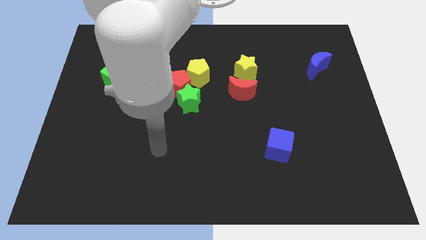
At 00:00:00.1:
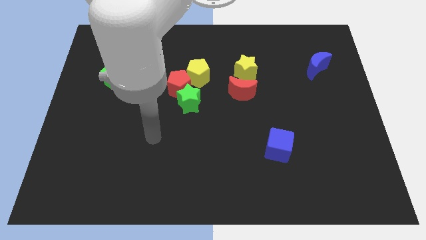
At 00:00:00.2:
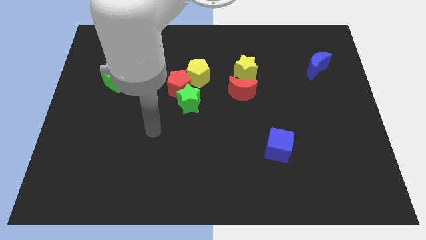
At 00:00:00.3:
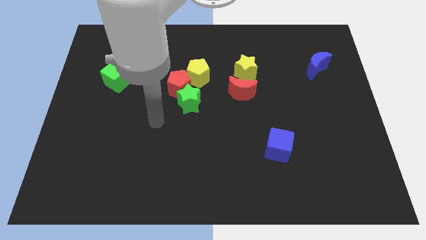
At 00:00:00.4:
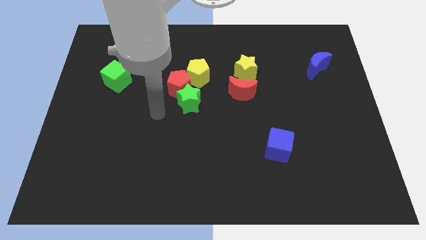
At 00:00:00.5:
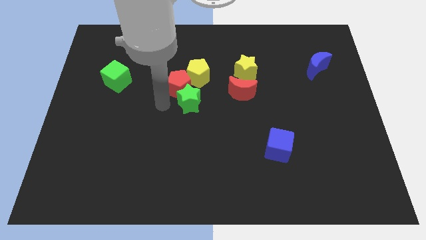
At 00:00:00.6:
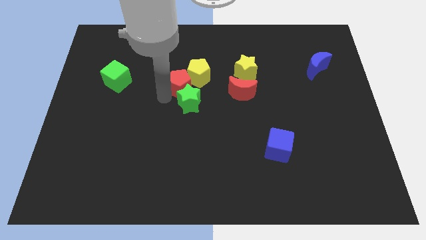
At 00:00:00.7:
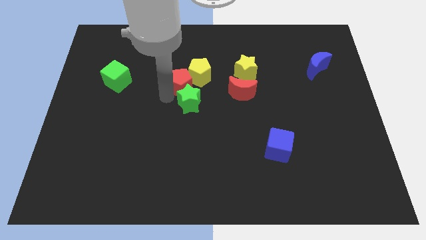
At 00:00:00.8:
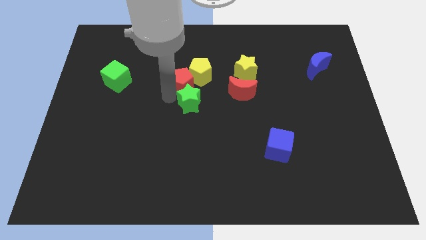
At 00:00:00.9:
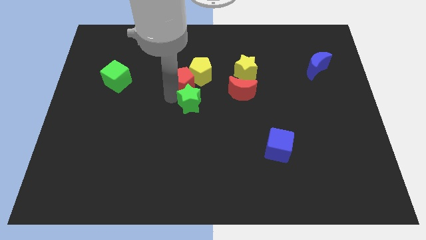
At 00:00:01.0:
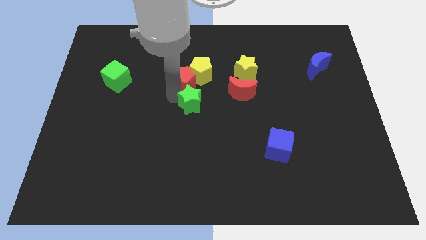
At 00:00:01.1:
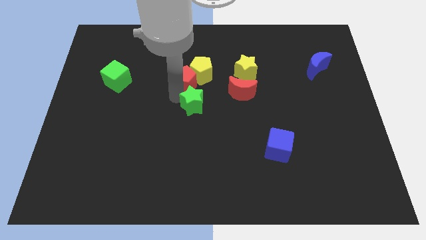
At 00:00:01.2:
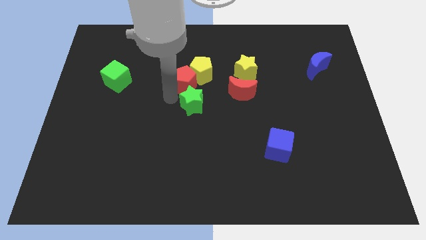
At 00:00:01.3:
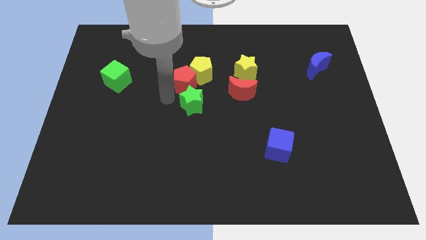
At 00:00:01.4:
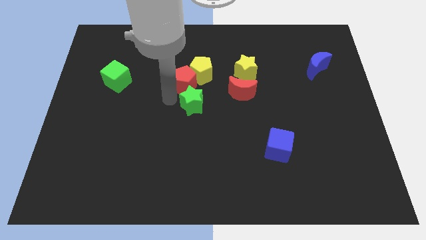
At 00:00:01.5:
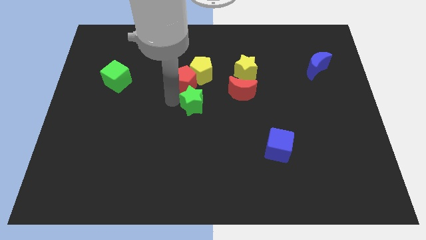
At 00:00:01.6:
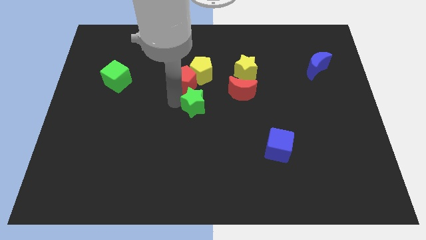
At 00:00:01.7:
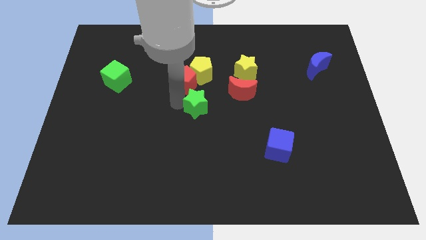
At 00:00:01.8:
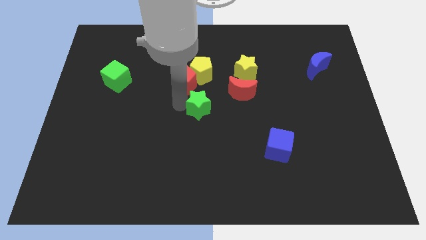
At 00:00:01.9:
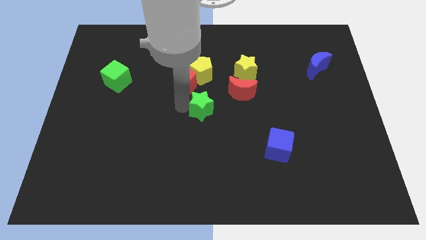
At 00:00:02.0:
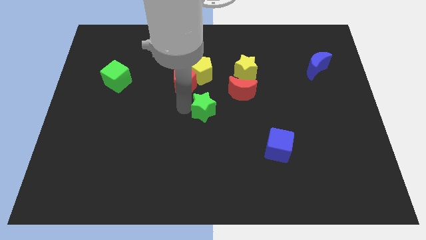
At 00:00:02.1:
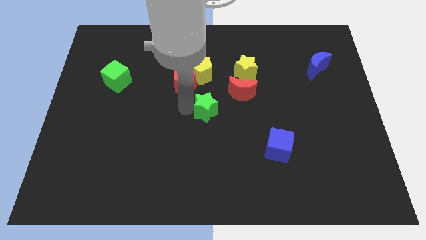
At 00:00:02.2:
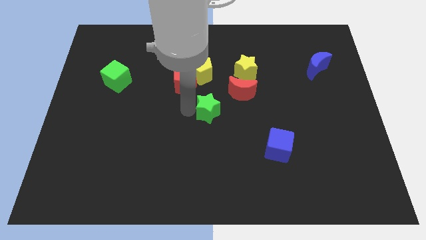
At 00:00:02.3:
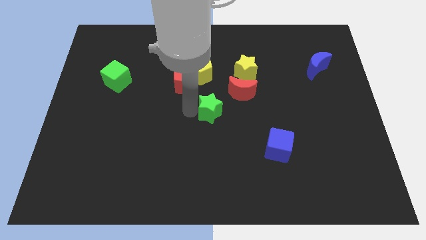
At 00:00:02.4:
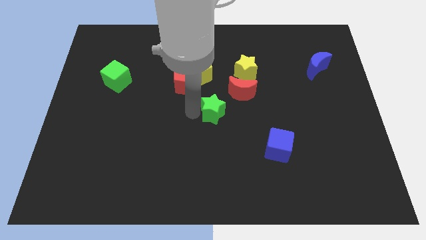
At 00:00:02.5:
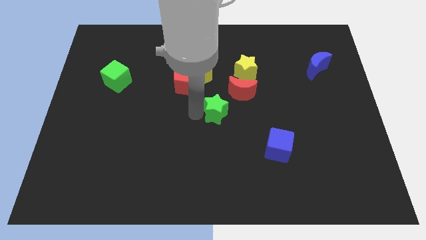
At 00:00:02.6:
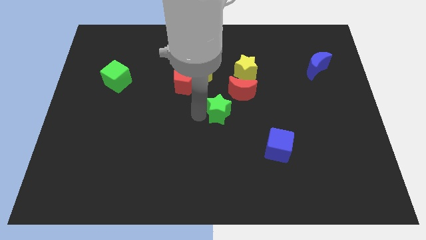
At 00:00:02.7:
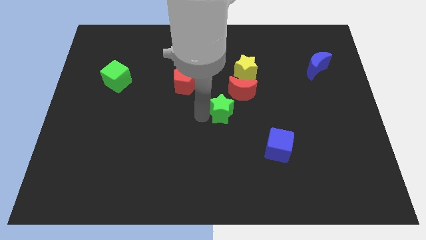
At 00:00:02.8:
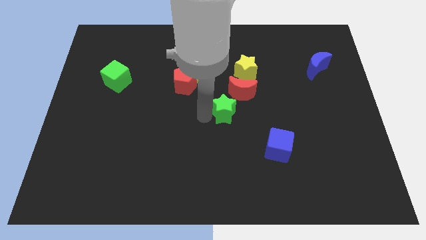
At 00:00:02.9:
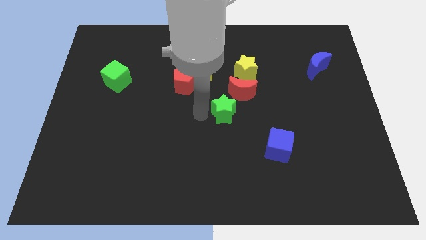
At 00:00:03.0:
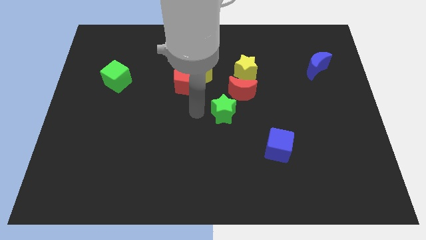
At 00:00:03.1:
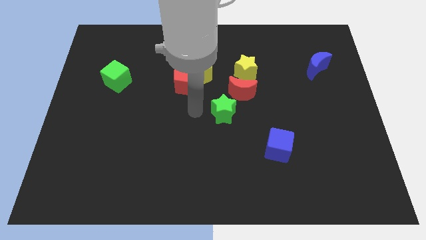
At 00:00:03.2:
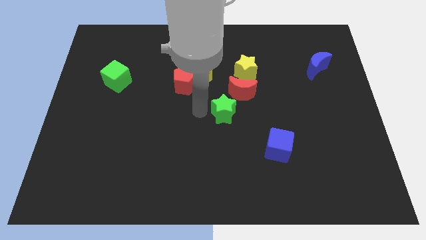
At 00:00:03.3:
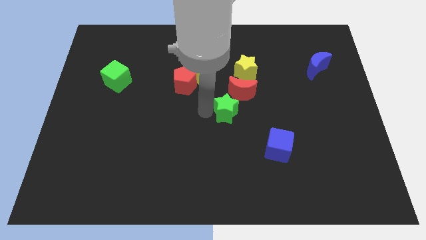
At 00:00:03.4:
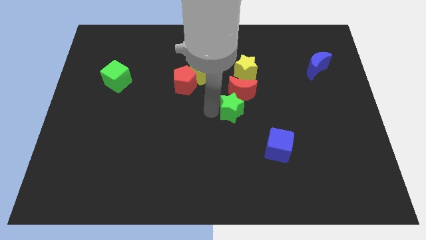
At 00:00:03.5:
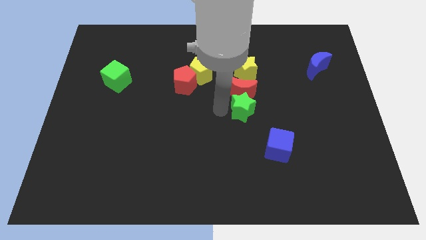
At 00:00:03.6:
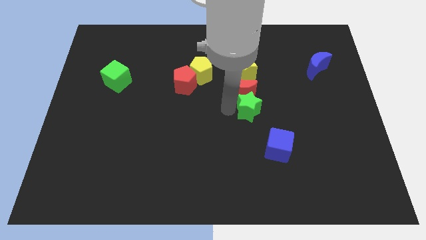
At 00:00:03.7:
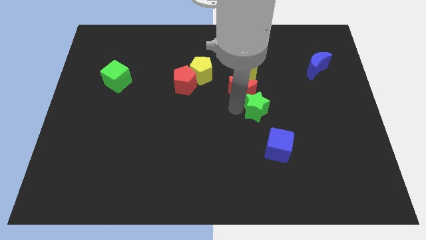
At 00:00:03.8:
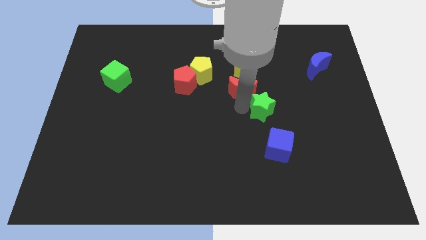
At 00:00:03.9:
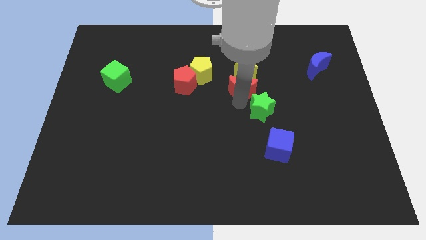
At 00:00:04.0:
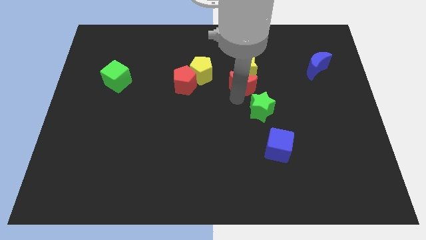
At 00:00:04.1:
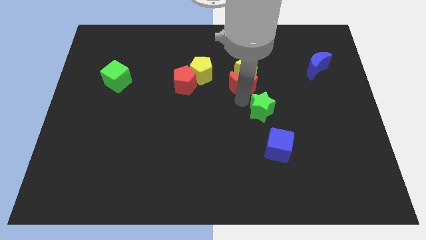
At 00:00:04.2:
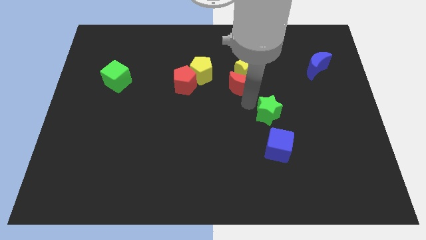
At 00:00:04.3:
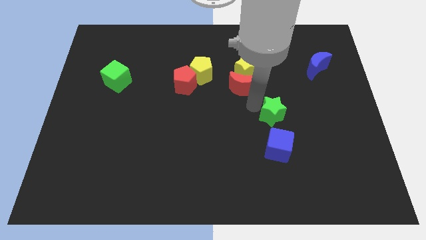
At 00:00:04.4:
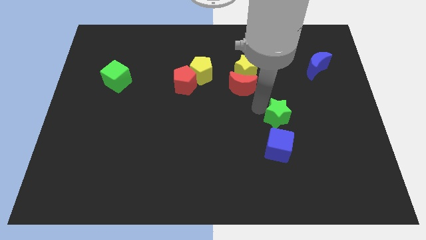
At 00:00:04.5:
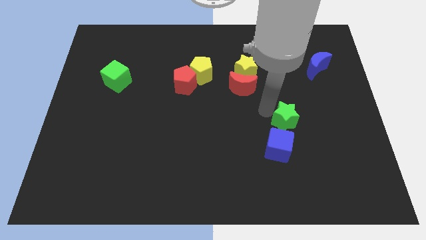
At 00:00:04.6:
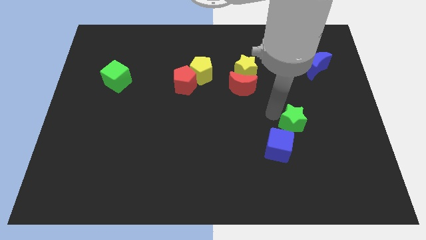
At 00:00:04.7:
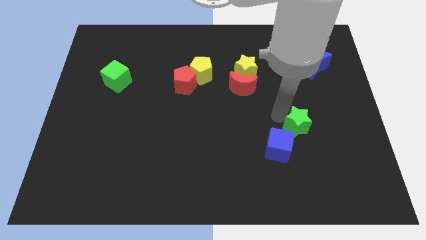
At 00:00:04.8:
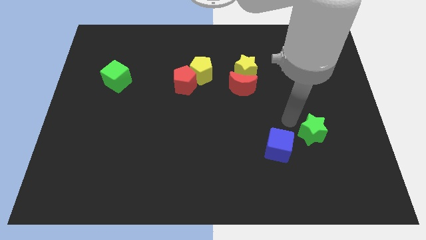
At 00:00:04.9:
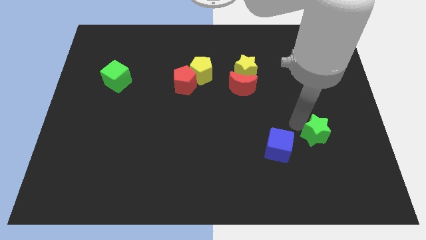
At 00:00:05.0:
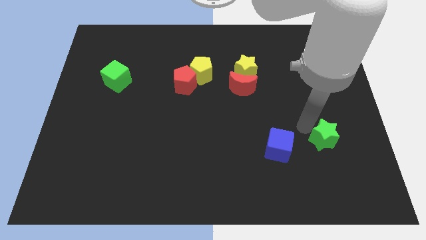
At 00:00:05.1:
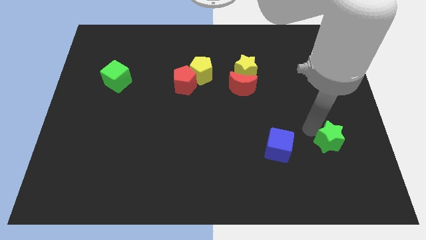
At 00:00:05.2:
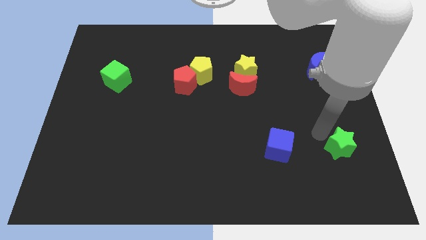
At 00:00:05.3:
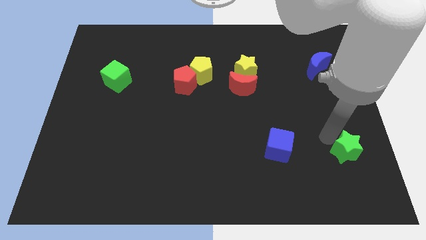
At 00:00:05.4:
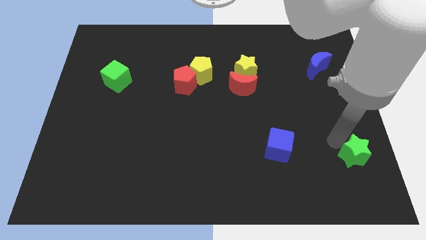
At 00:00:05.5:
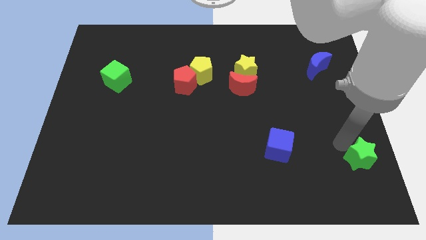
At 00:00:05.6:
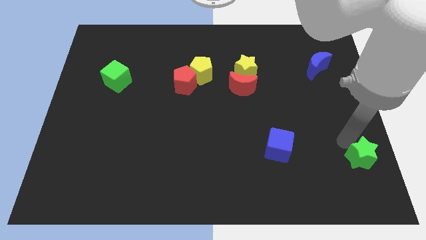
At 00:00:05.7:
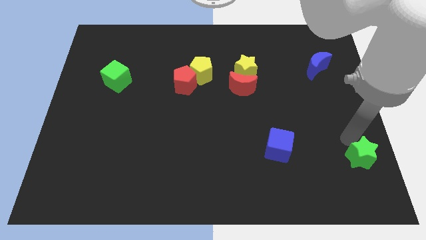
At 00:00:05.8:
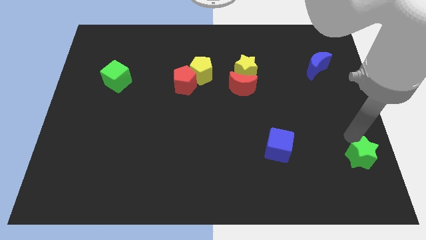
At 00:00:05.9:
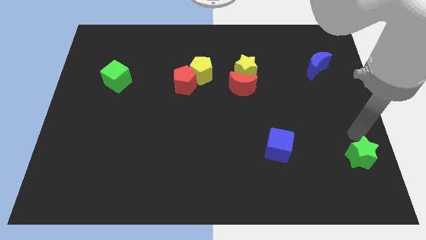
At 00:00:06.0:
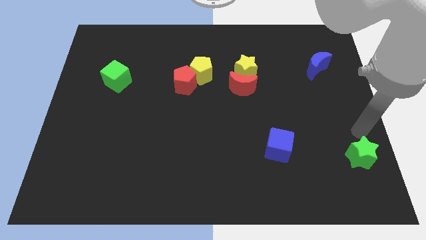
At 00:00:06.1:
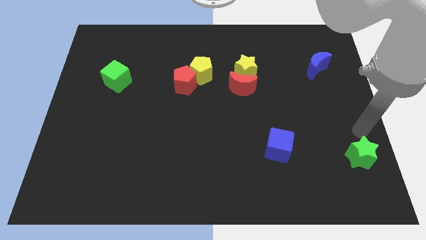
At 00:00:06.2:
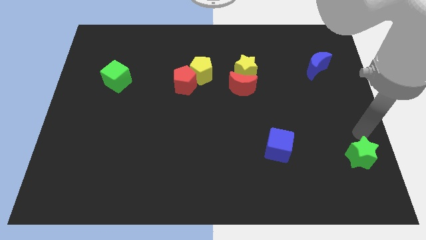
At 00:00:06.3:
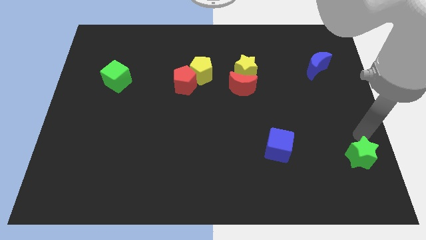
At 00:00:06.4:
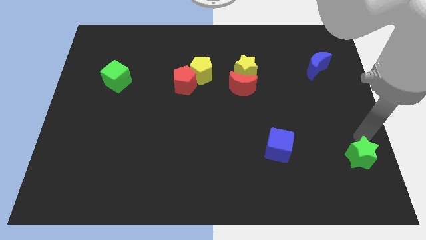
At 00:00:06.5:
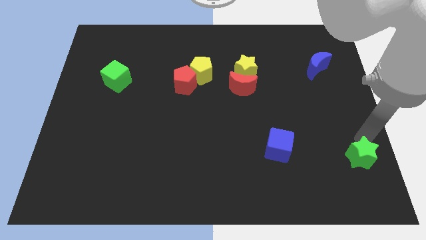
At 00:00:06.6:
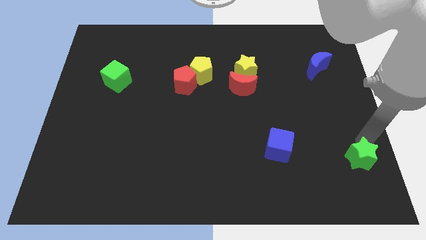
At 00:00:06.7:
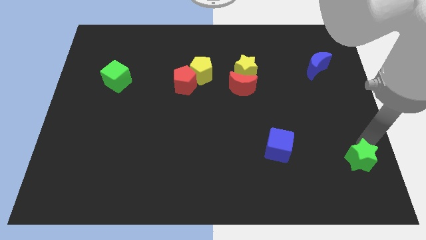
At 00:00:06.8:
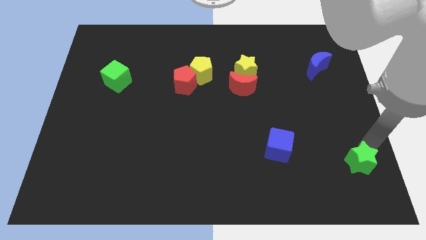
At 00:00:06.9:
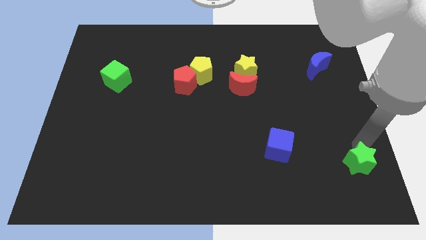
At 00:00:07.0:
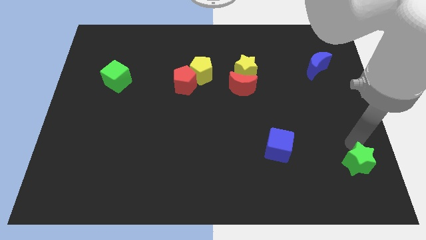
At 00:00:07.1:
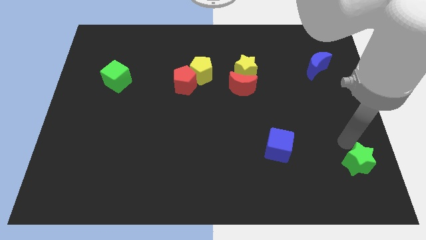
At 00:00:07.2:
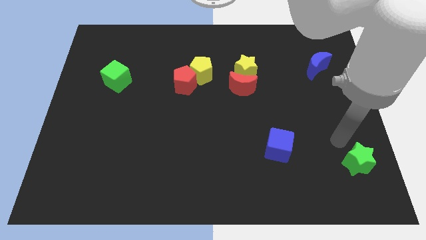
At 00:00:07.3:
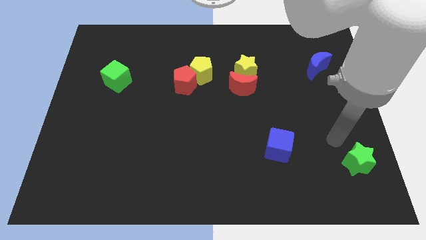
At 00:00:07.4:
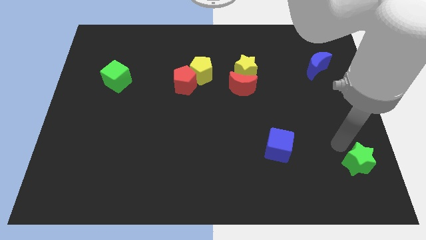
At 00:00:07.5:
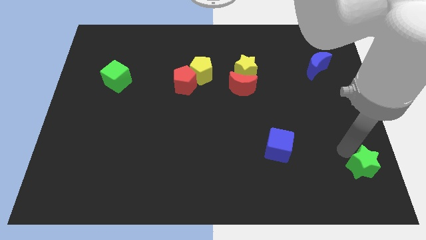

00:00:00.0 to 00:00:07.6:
push the green star to the bottom right corner

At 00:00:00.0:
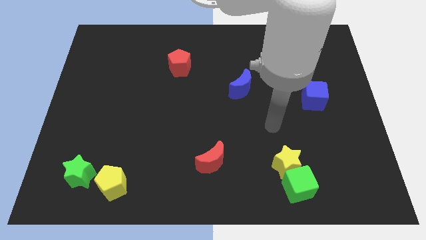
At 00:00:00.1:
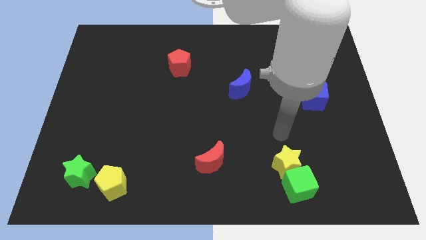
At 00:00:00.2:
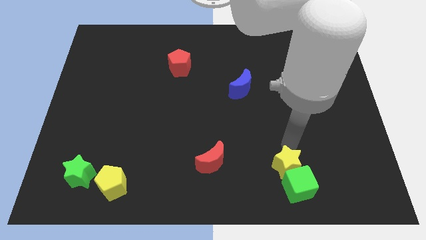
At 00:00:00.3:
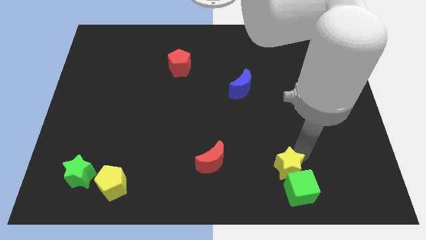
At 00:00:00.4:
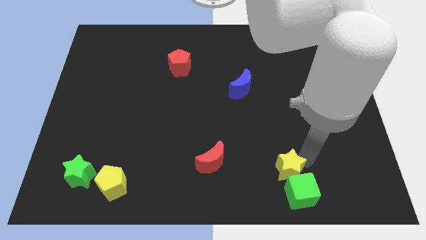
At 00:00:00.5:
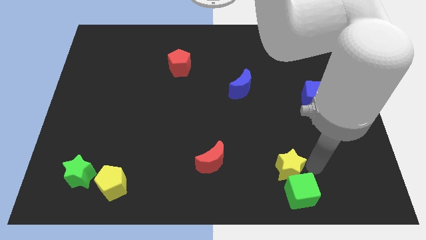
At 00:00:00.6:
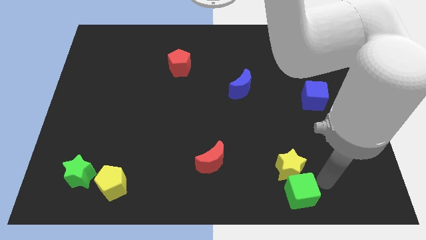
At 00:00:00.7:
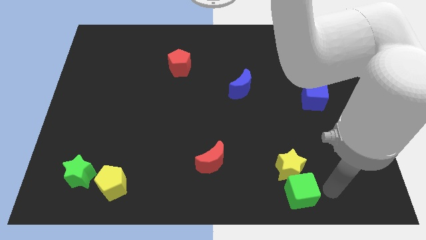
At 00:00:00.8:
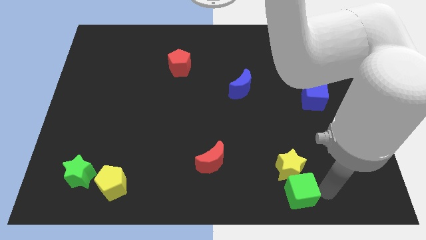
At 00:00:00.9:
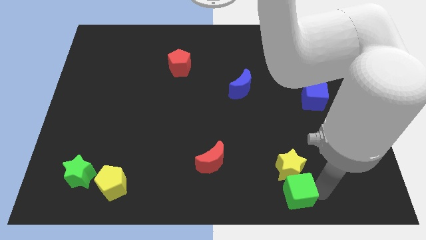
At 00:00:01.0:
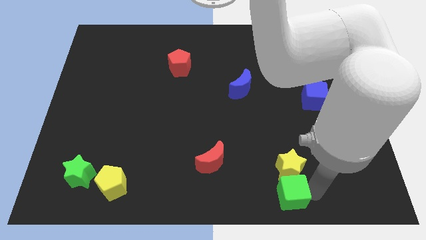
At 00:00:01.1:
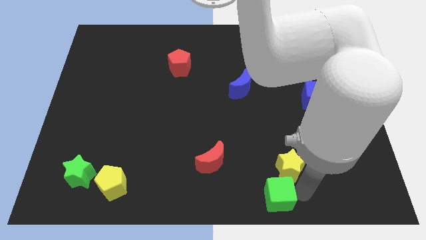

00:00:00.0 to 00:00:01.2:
push the green cube to the bottom side

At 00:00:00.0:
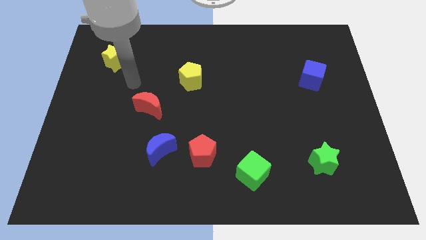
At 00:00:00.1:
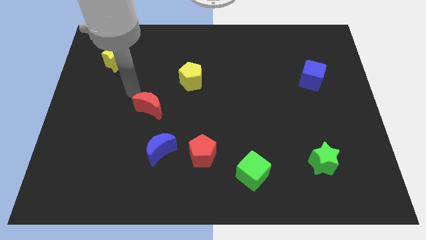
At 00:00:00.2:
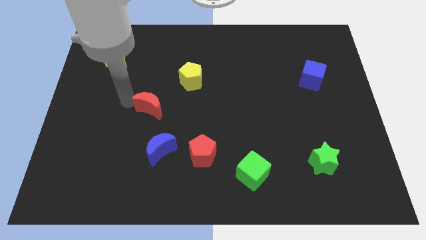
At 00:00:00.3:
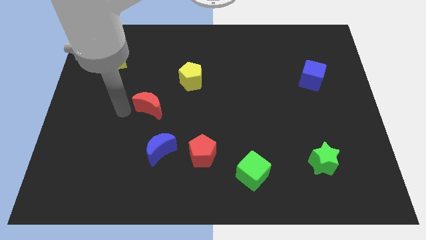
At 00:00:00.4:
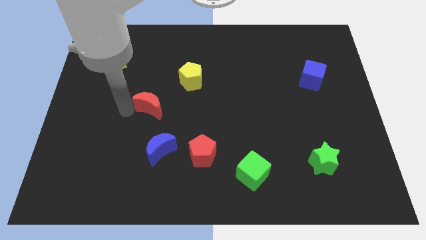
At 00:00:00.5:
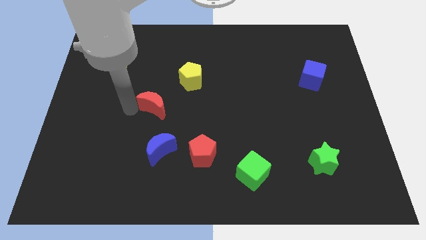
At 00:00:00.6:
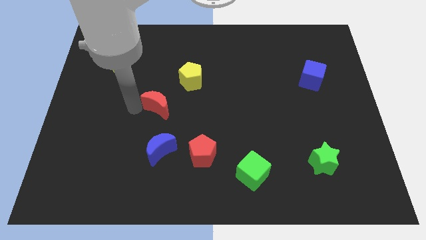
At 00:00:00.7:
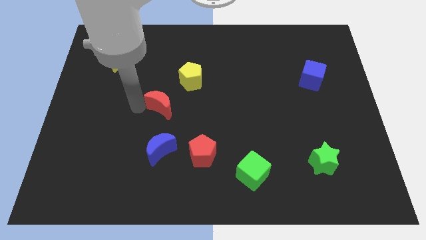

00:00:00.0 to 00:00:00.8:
put the red moon to the middle of the board
